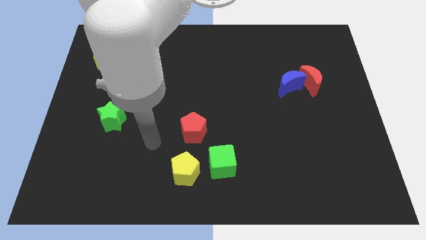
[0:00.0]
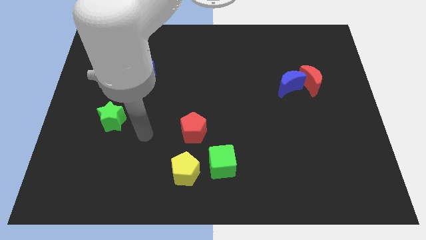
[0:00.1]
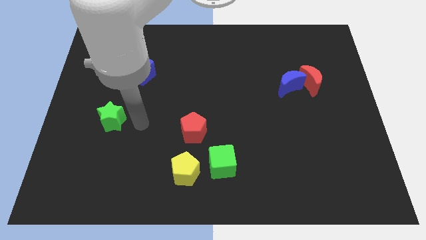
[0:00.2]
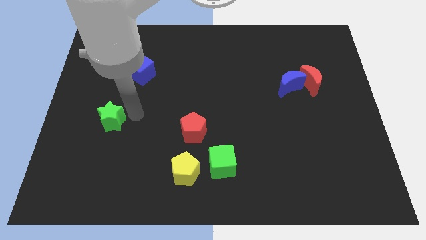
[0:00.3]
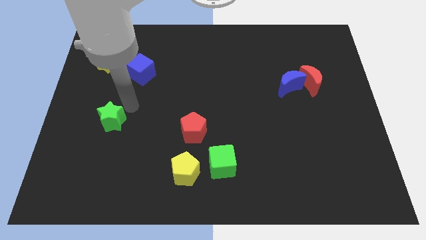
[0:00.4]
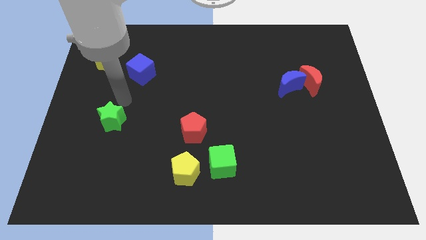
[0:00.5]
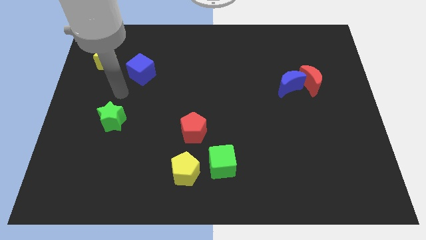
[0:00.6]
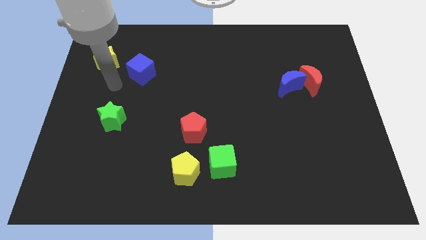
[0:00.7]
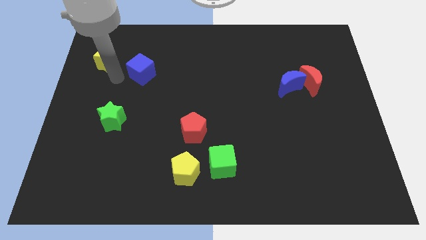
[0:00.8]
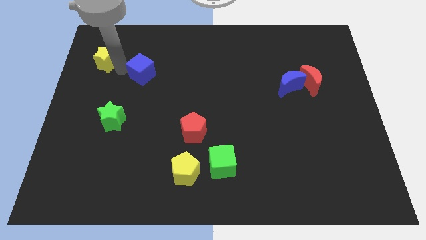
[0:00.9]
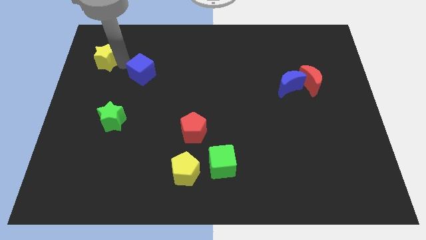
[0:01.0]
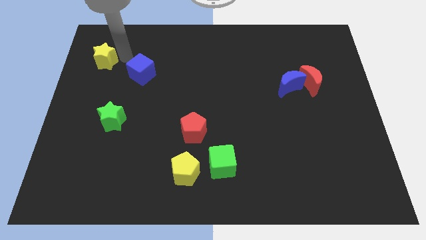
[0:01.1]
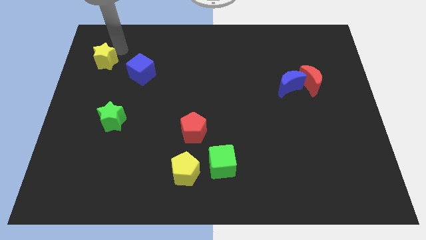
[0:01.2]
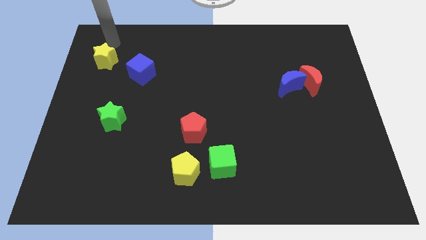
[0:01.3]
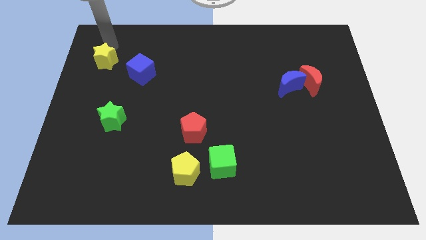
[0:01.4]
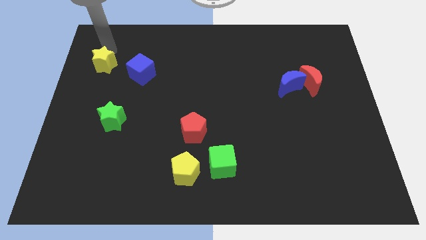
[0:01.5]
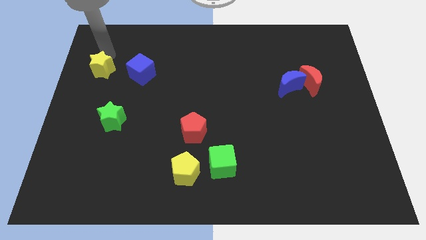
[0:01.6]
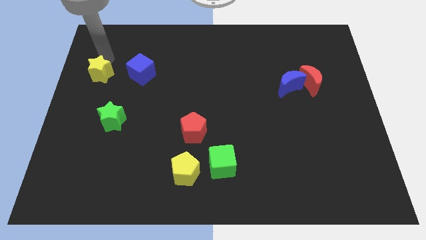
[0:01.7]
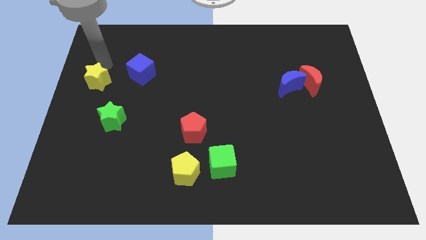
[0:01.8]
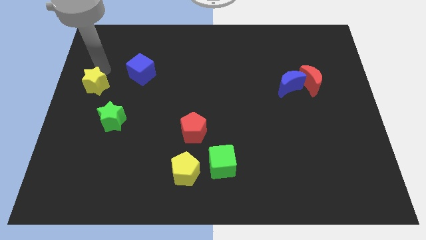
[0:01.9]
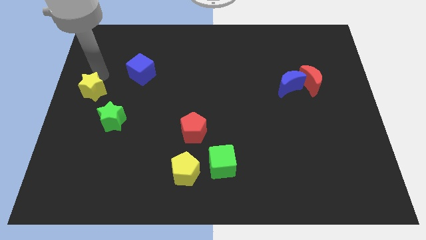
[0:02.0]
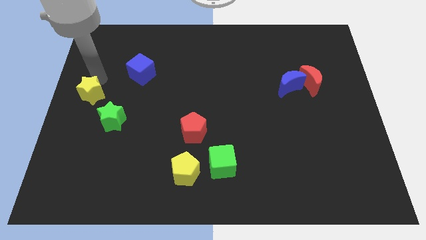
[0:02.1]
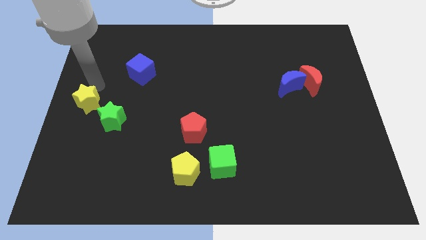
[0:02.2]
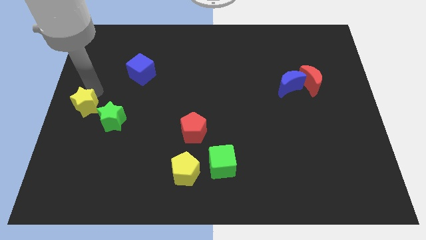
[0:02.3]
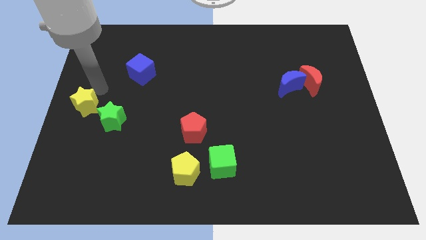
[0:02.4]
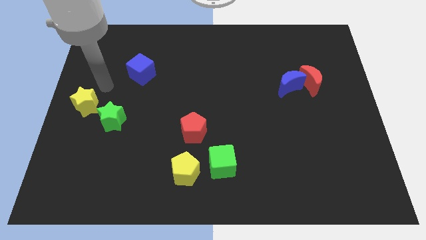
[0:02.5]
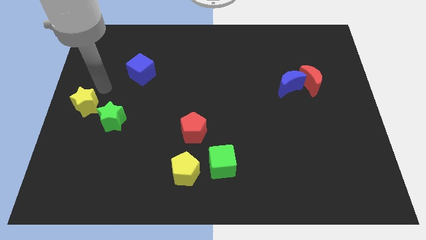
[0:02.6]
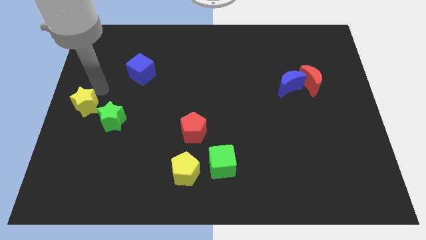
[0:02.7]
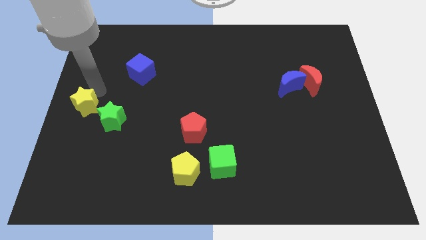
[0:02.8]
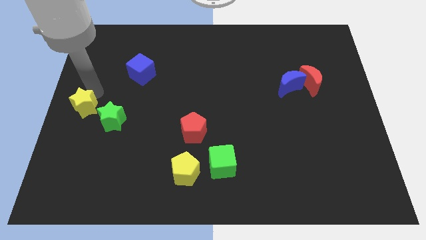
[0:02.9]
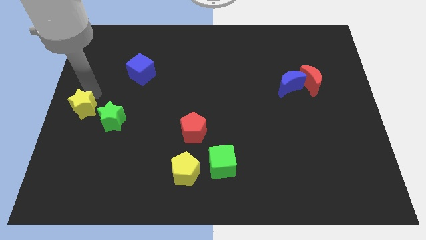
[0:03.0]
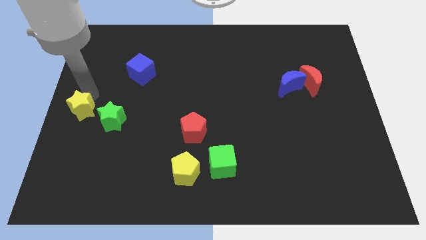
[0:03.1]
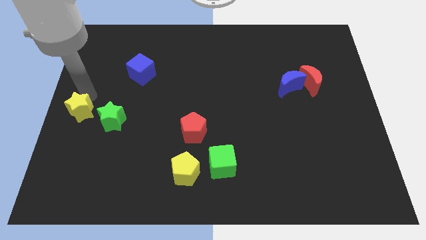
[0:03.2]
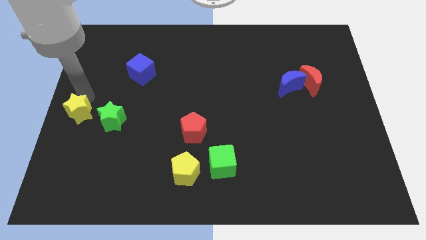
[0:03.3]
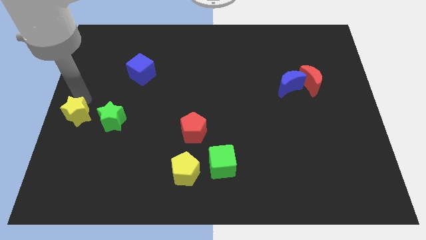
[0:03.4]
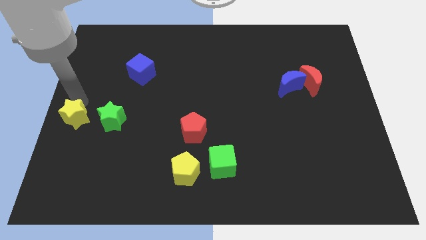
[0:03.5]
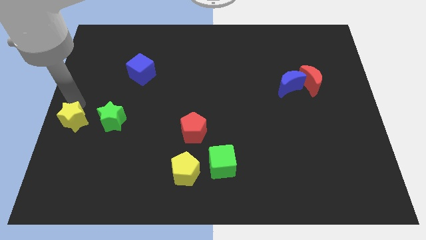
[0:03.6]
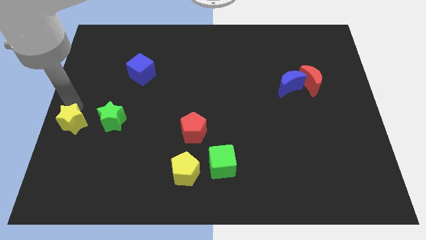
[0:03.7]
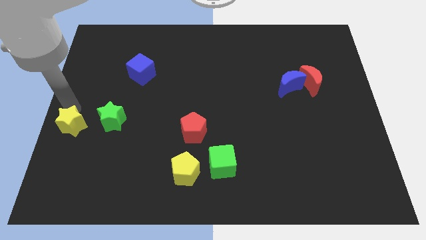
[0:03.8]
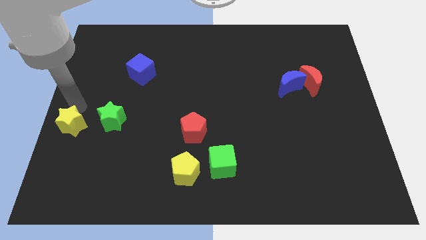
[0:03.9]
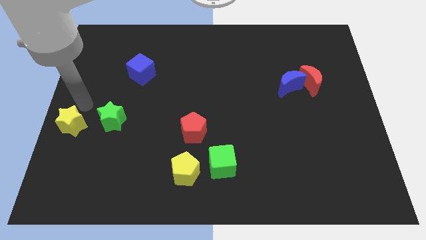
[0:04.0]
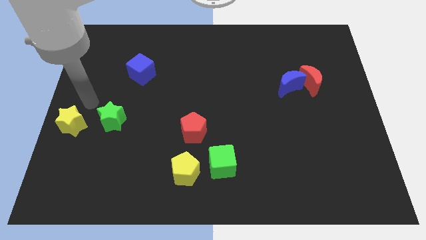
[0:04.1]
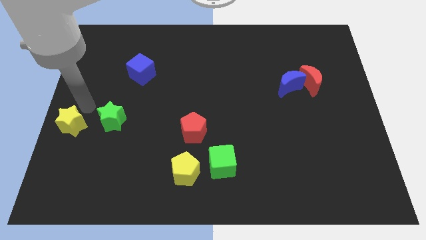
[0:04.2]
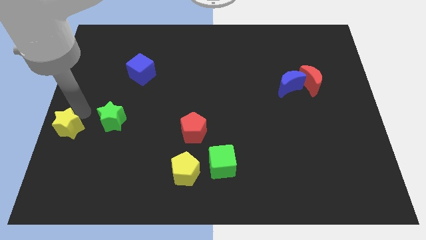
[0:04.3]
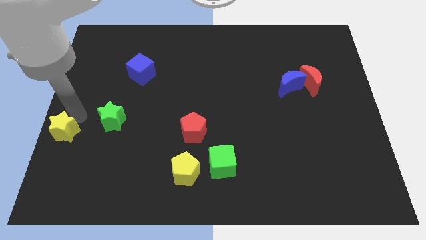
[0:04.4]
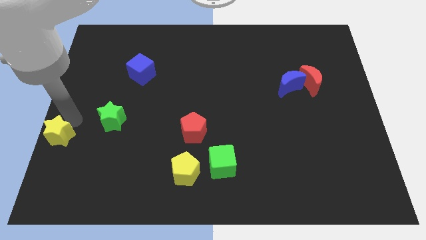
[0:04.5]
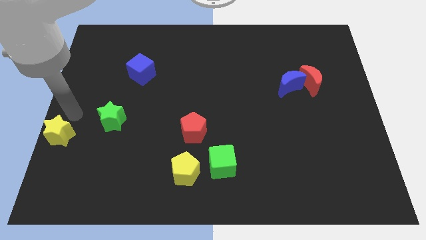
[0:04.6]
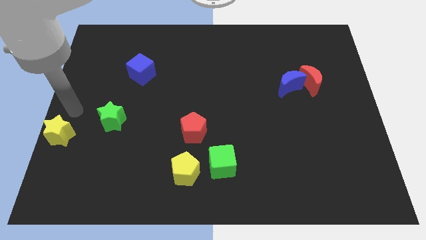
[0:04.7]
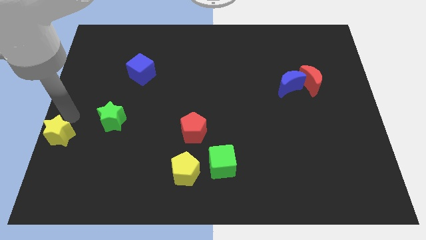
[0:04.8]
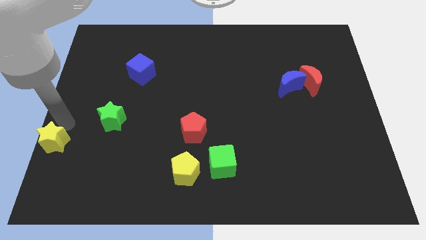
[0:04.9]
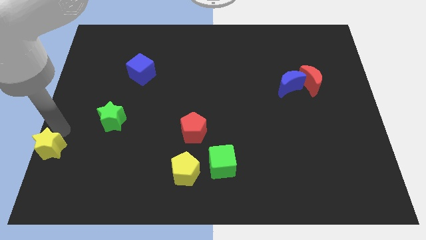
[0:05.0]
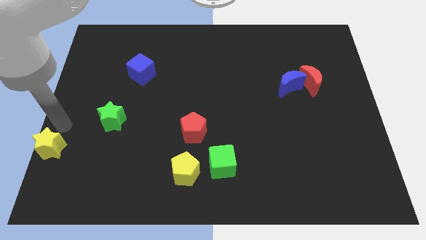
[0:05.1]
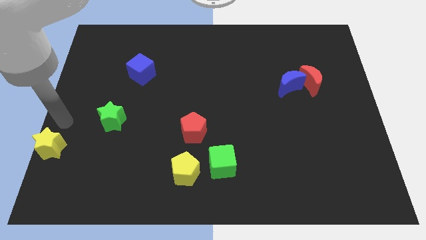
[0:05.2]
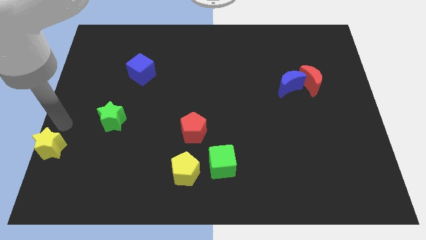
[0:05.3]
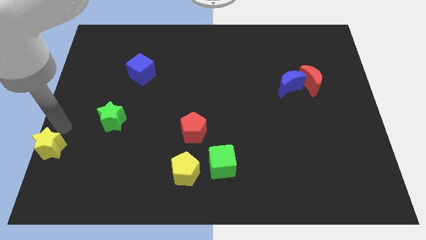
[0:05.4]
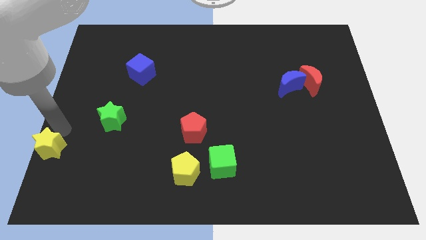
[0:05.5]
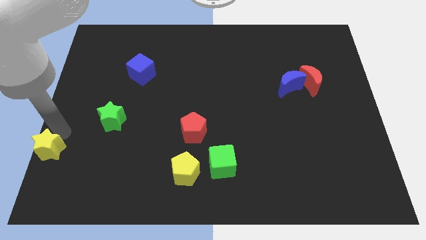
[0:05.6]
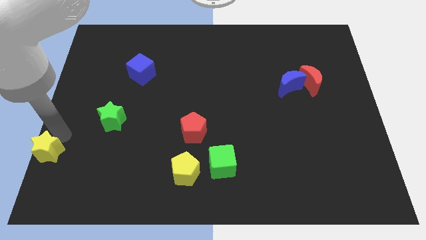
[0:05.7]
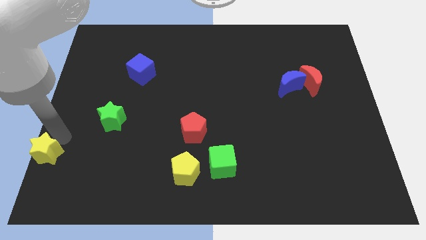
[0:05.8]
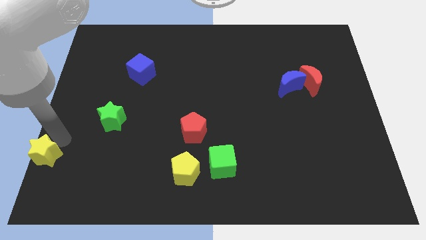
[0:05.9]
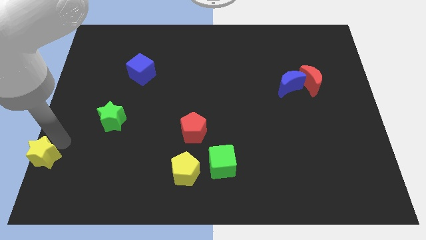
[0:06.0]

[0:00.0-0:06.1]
push the yellow star to the bottom left corner

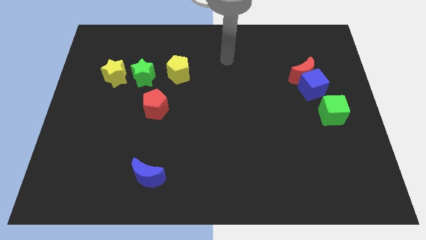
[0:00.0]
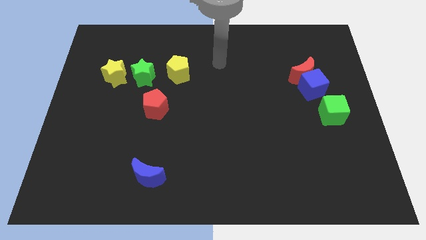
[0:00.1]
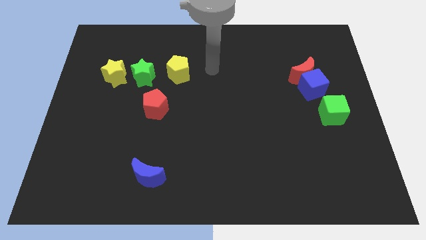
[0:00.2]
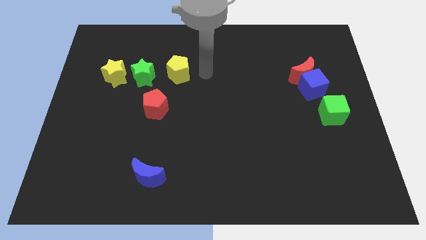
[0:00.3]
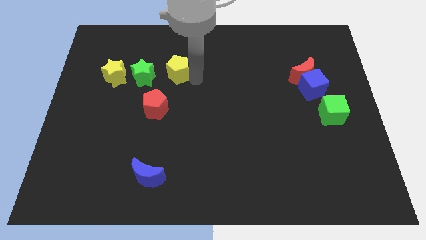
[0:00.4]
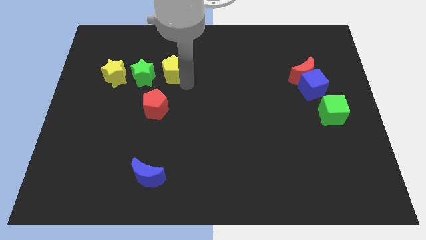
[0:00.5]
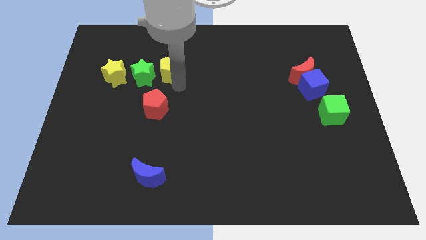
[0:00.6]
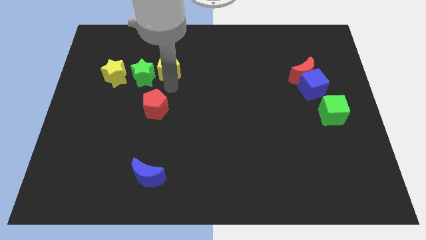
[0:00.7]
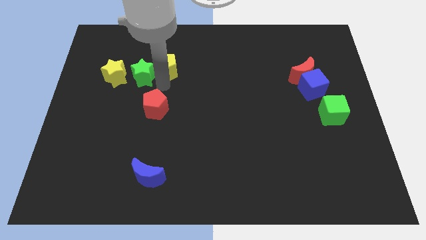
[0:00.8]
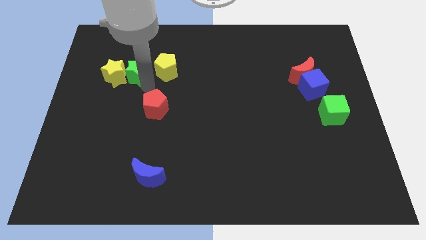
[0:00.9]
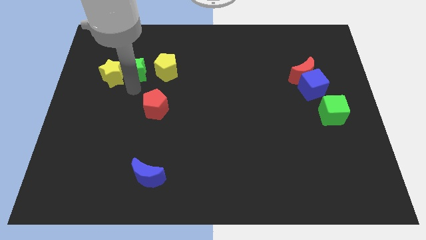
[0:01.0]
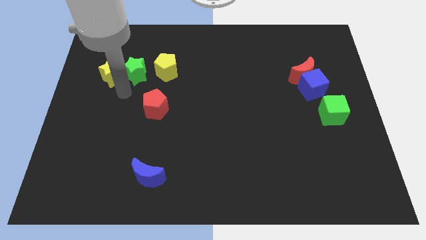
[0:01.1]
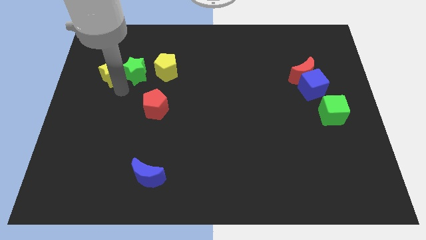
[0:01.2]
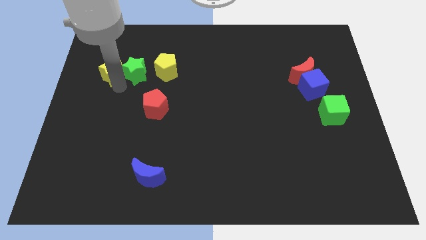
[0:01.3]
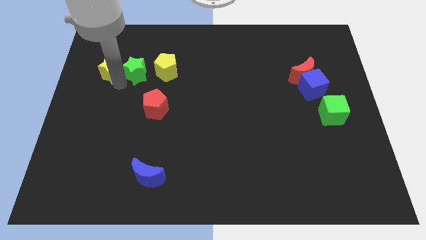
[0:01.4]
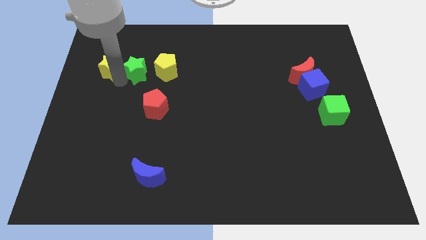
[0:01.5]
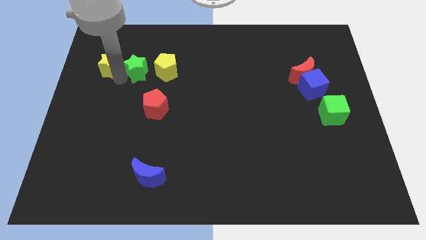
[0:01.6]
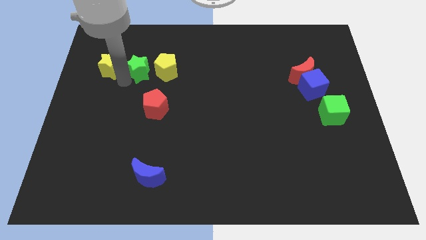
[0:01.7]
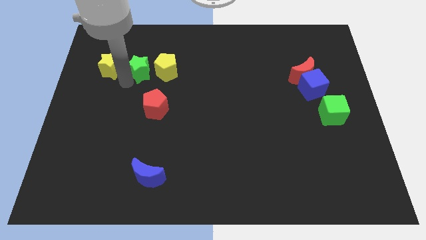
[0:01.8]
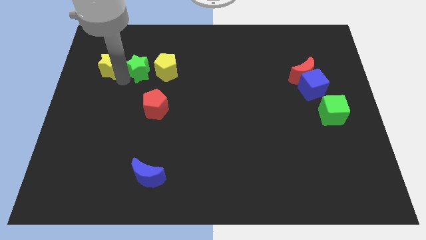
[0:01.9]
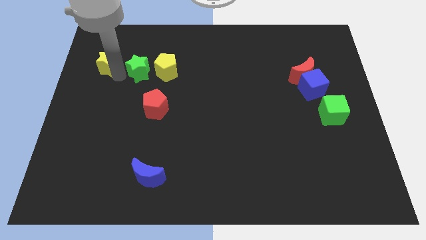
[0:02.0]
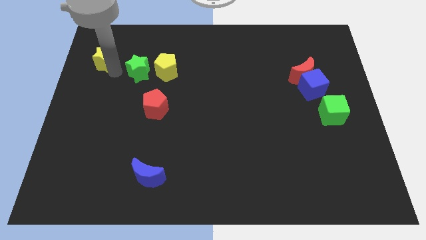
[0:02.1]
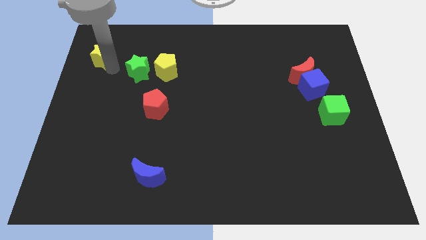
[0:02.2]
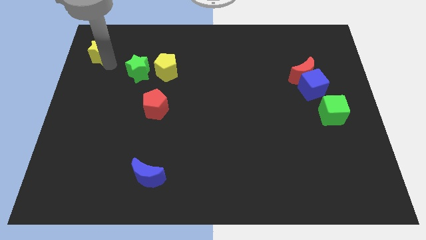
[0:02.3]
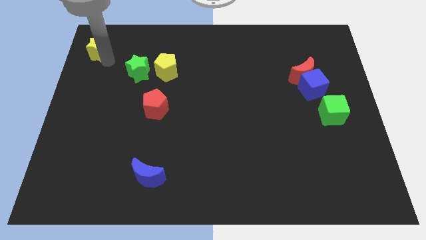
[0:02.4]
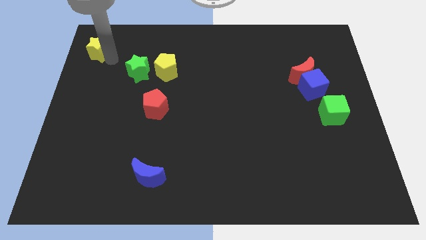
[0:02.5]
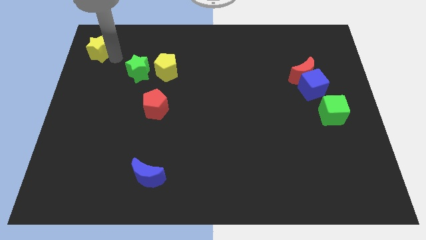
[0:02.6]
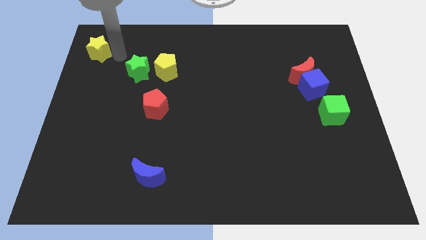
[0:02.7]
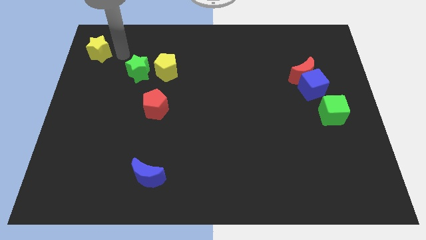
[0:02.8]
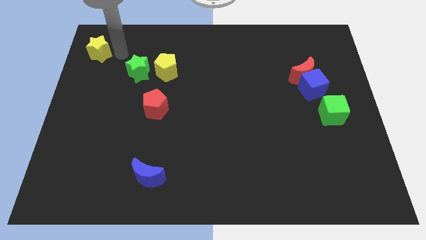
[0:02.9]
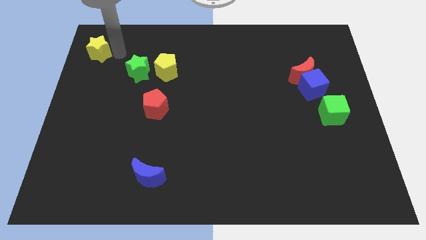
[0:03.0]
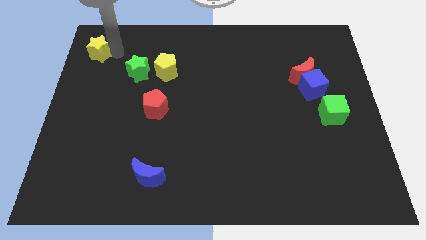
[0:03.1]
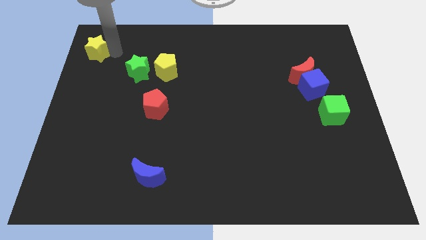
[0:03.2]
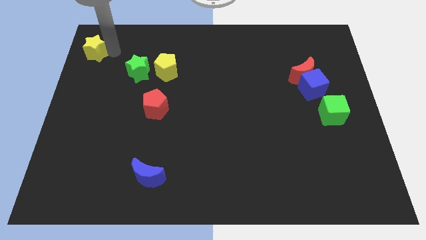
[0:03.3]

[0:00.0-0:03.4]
push the yellow star to the upper left corner
